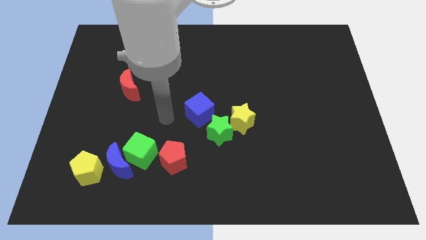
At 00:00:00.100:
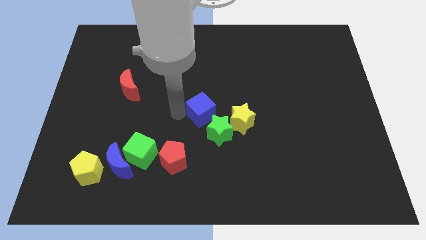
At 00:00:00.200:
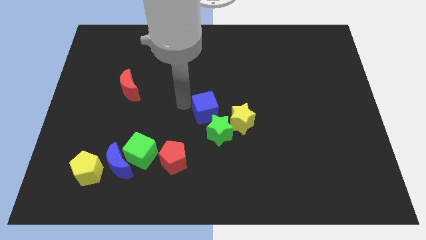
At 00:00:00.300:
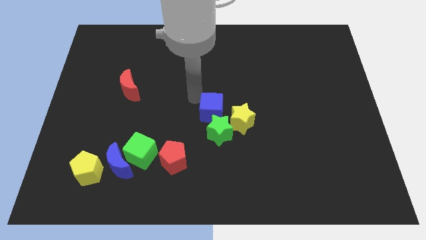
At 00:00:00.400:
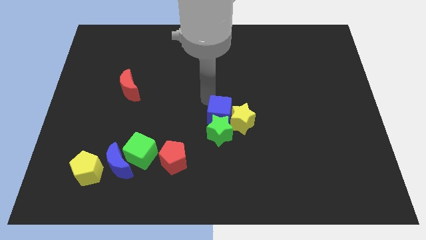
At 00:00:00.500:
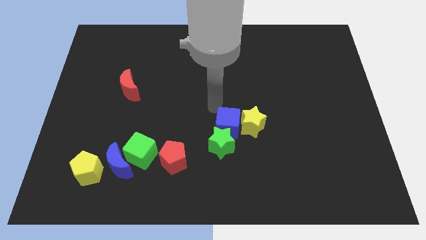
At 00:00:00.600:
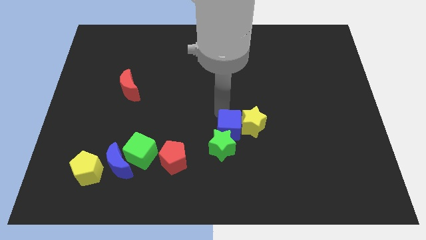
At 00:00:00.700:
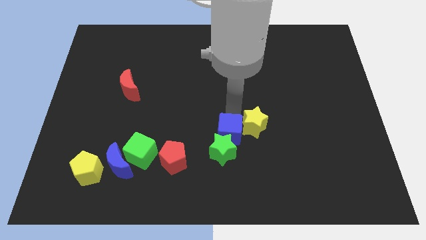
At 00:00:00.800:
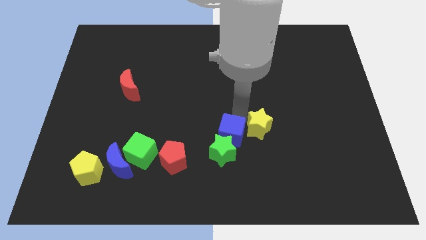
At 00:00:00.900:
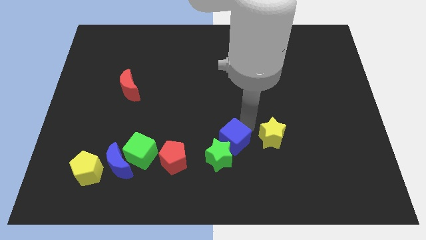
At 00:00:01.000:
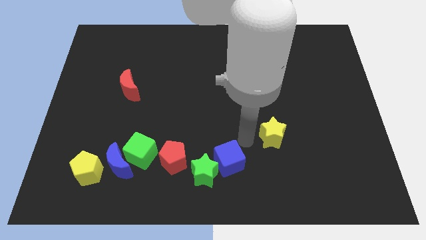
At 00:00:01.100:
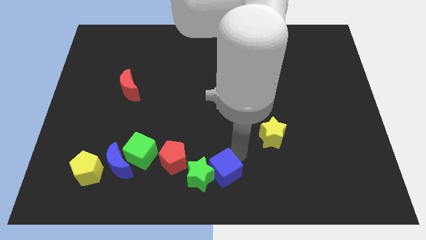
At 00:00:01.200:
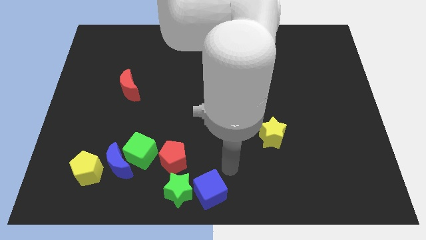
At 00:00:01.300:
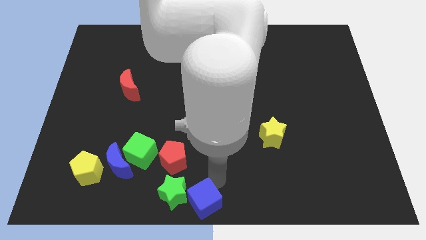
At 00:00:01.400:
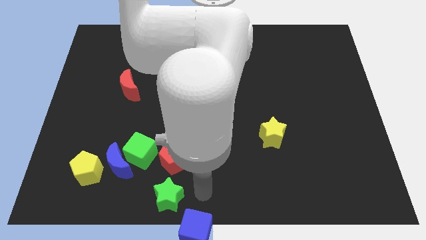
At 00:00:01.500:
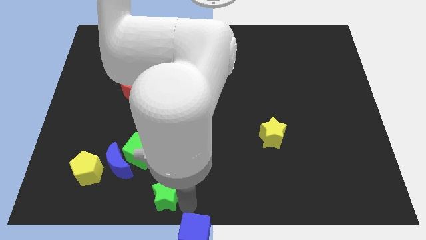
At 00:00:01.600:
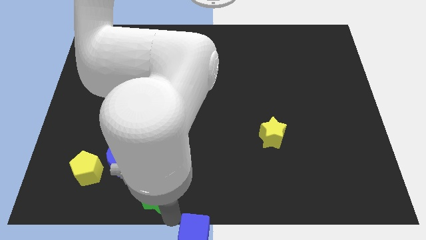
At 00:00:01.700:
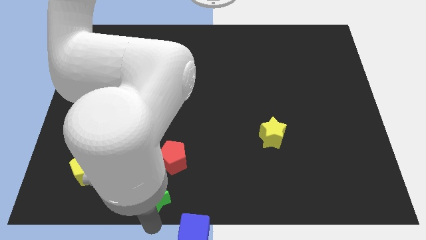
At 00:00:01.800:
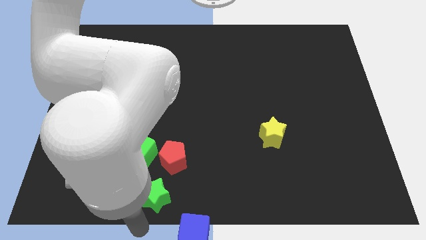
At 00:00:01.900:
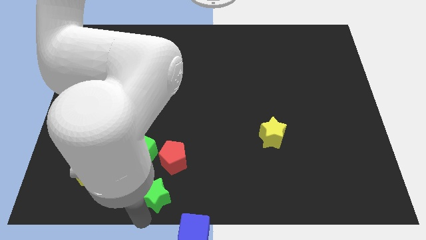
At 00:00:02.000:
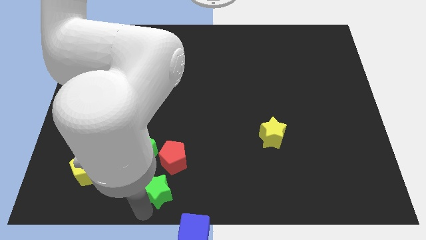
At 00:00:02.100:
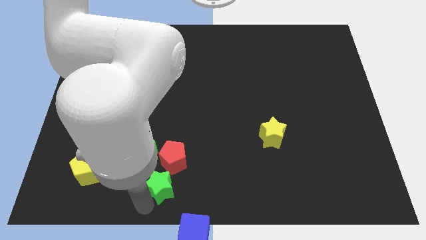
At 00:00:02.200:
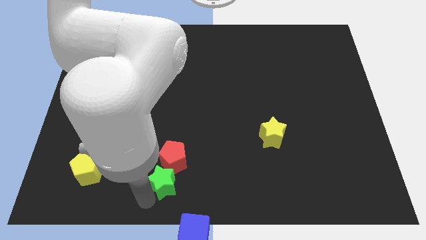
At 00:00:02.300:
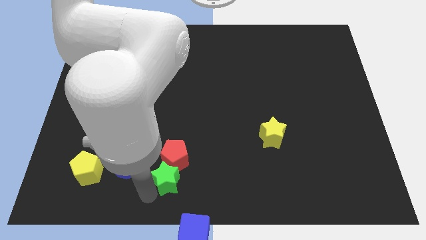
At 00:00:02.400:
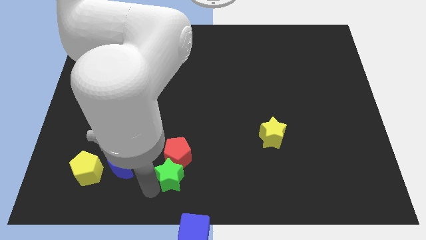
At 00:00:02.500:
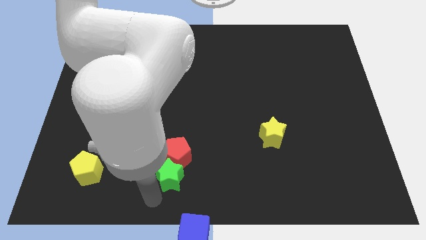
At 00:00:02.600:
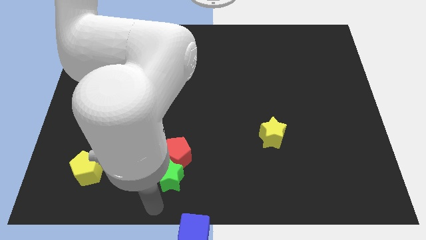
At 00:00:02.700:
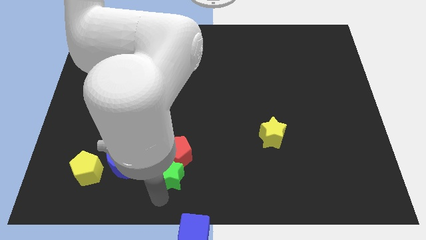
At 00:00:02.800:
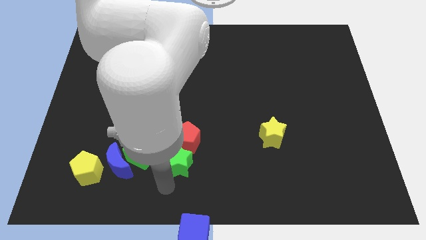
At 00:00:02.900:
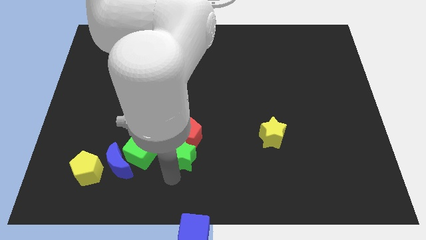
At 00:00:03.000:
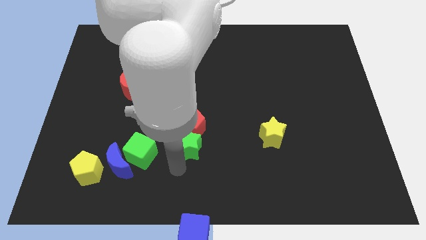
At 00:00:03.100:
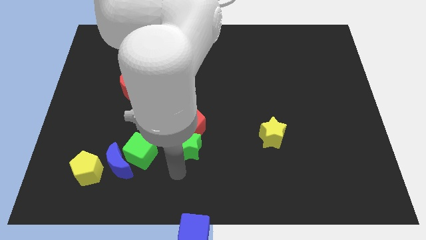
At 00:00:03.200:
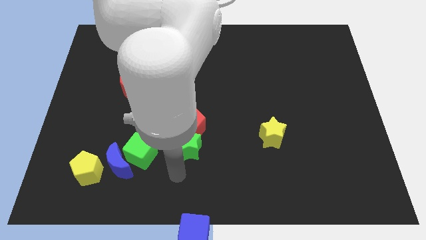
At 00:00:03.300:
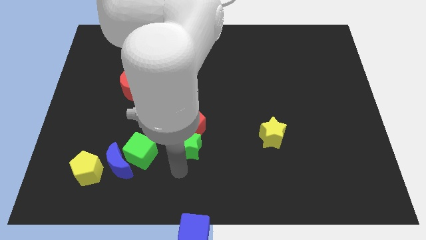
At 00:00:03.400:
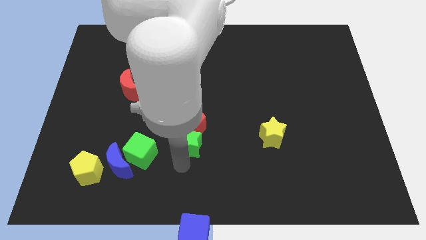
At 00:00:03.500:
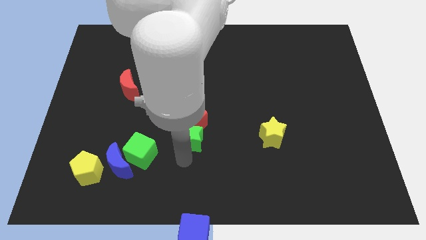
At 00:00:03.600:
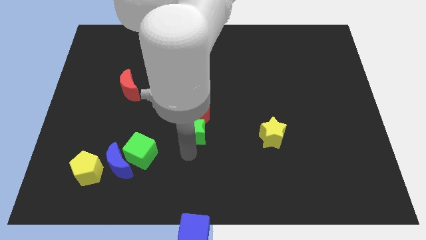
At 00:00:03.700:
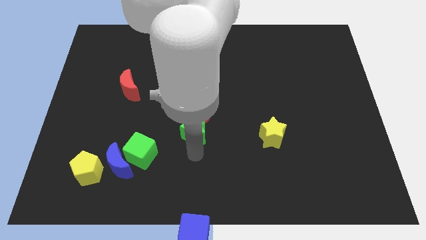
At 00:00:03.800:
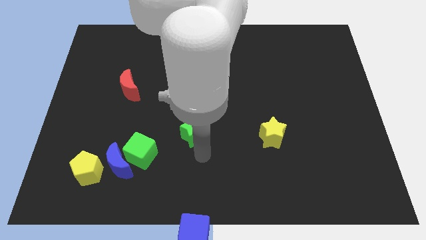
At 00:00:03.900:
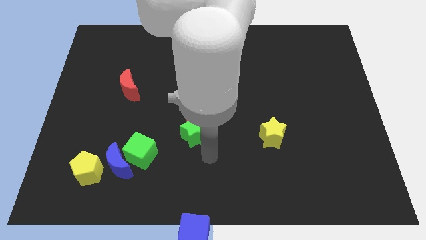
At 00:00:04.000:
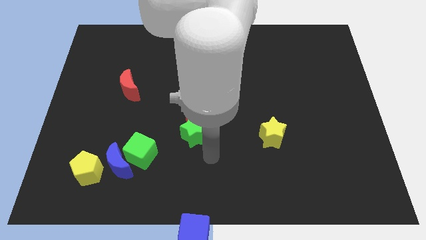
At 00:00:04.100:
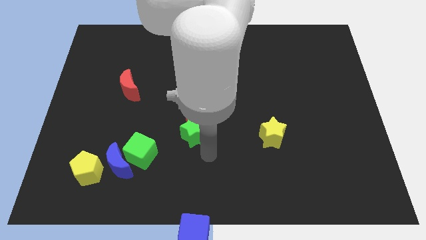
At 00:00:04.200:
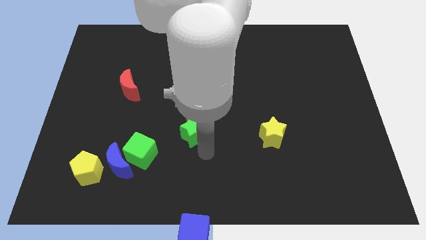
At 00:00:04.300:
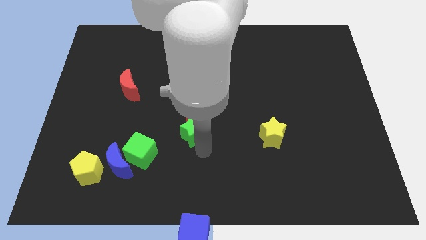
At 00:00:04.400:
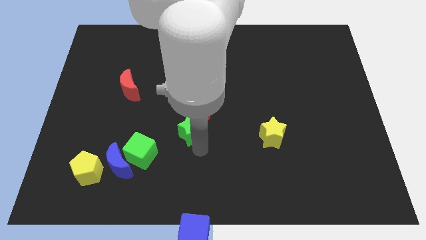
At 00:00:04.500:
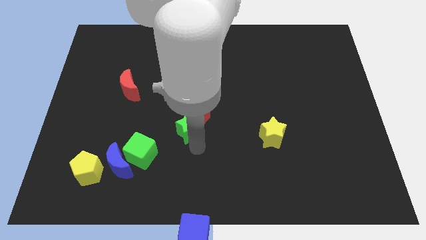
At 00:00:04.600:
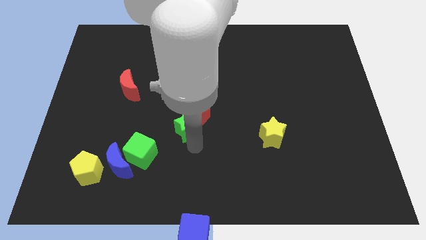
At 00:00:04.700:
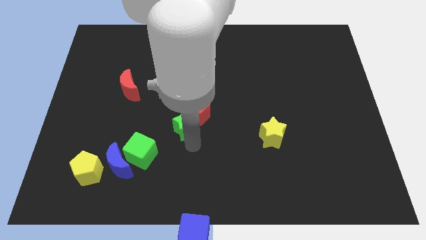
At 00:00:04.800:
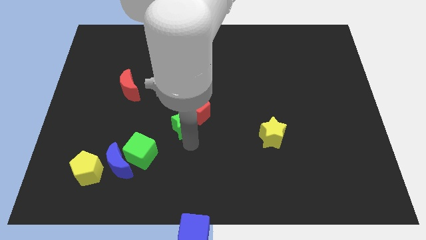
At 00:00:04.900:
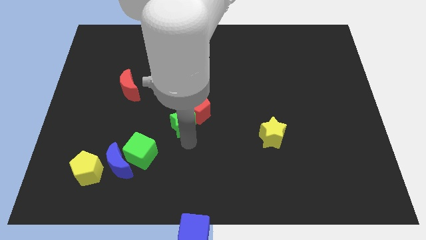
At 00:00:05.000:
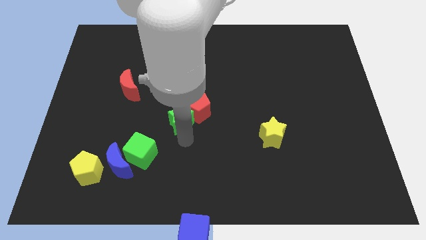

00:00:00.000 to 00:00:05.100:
slightly push the green star upwards and left

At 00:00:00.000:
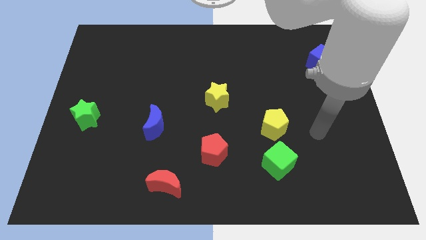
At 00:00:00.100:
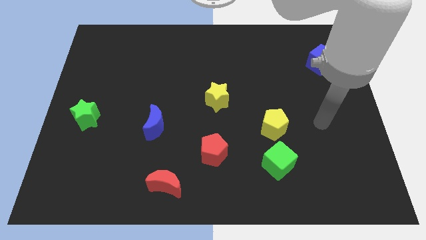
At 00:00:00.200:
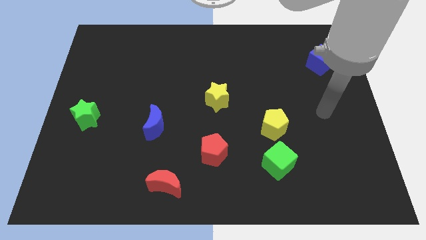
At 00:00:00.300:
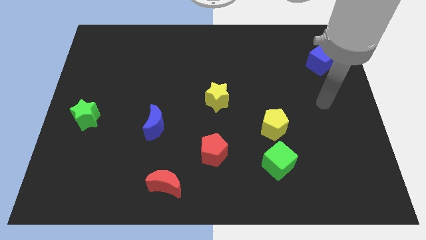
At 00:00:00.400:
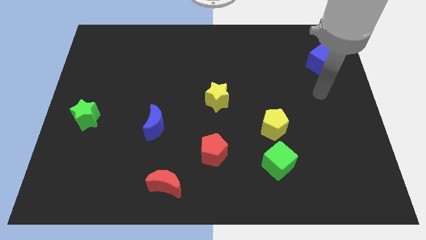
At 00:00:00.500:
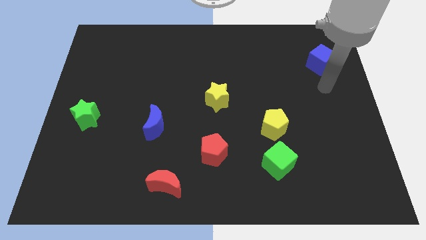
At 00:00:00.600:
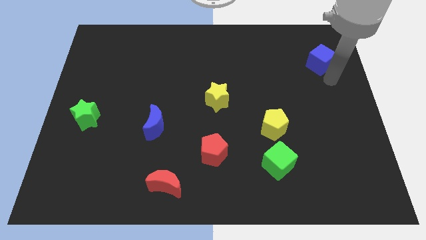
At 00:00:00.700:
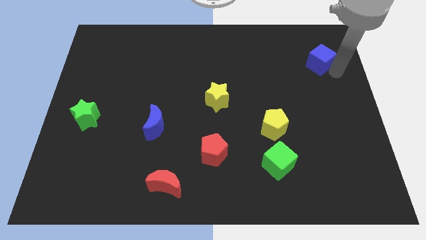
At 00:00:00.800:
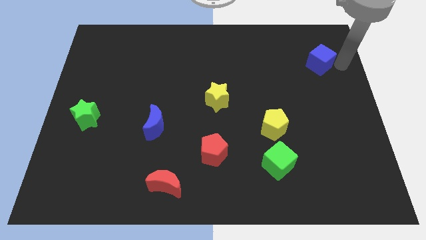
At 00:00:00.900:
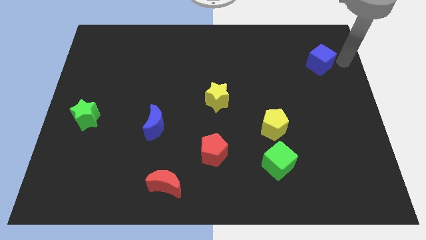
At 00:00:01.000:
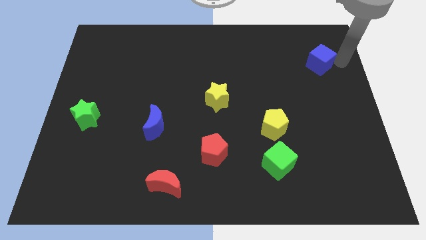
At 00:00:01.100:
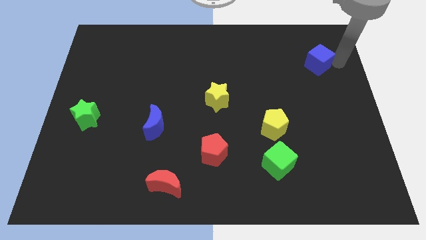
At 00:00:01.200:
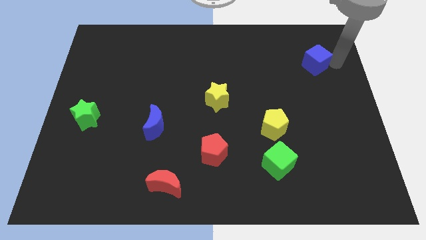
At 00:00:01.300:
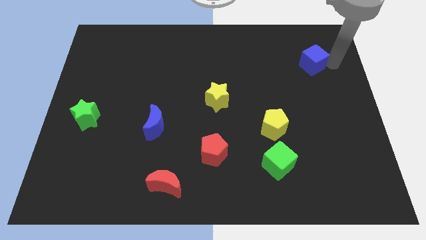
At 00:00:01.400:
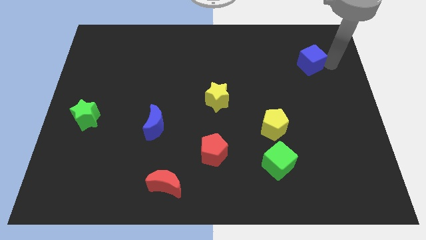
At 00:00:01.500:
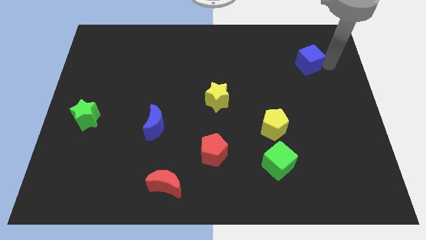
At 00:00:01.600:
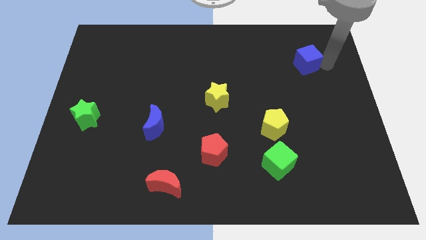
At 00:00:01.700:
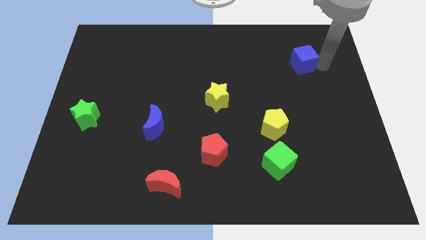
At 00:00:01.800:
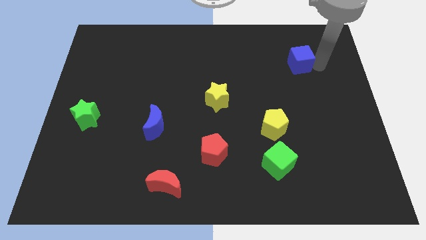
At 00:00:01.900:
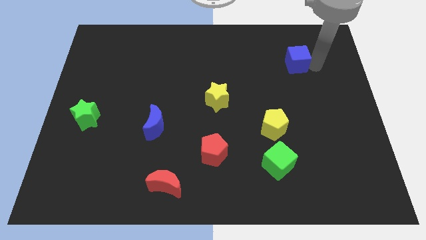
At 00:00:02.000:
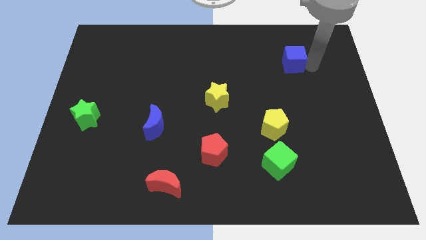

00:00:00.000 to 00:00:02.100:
slightly move the blue cube to the left

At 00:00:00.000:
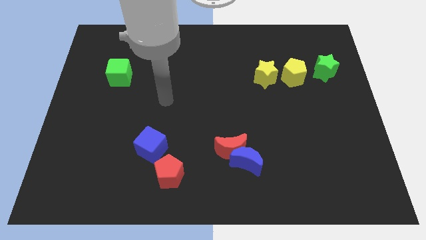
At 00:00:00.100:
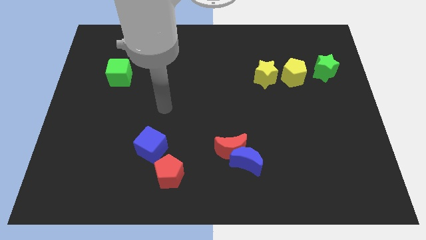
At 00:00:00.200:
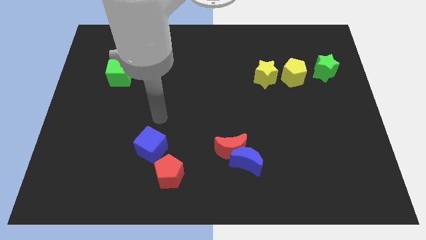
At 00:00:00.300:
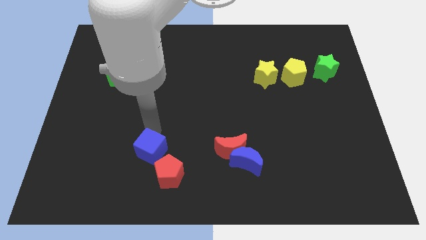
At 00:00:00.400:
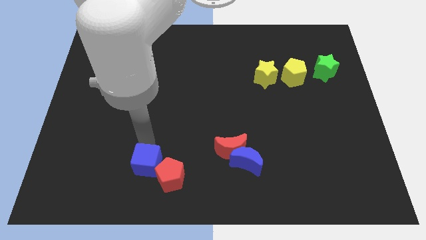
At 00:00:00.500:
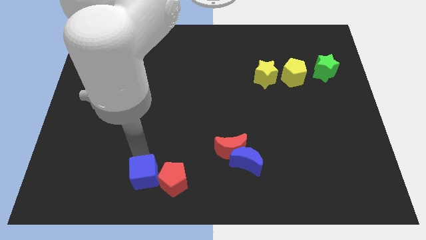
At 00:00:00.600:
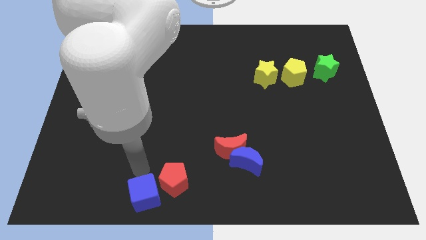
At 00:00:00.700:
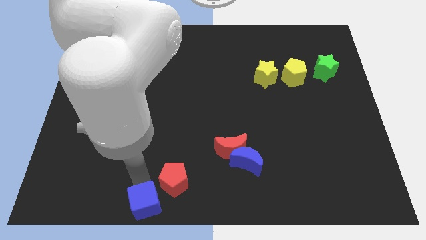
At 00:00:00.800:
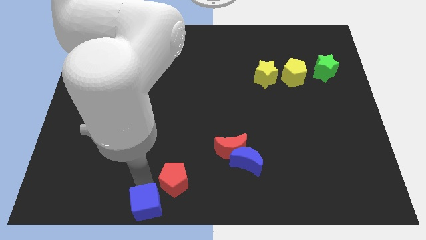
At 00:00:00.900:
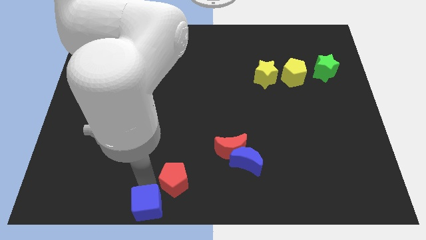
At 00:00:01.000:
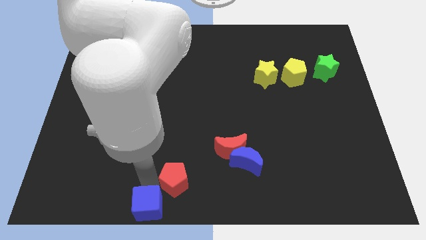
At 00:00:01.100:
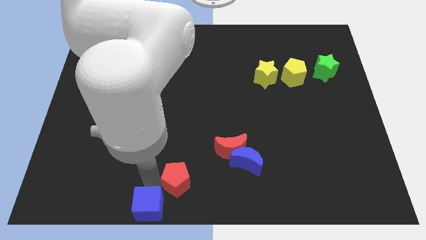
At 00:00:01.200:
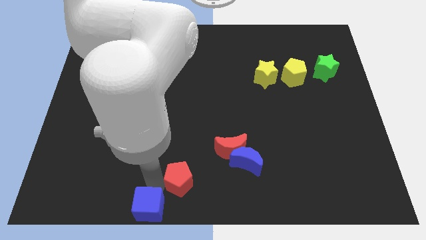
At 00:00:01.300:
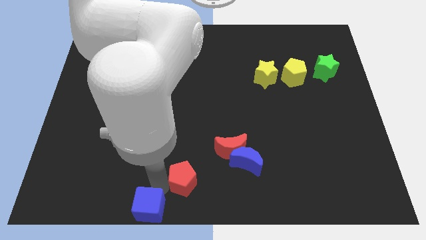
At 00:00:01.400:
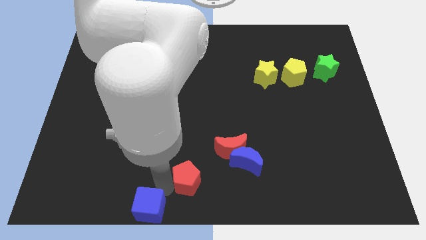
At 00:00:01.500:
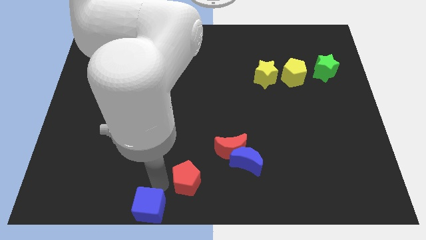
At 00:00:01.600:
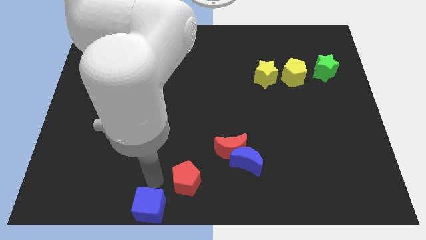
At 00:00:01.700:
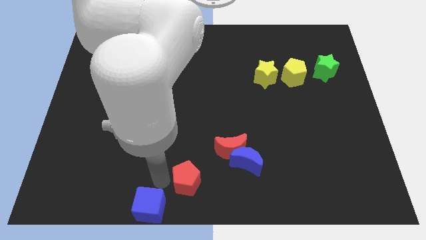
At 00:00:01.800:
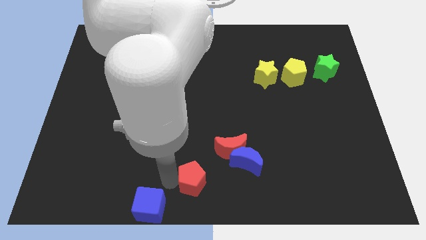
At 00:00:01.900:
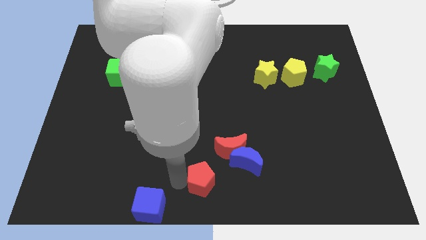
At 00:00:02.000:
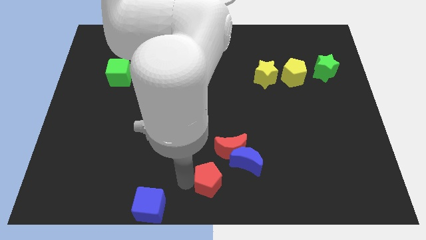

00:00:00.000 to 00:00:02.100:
move the red pentagon a little right
